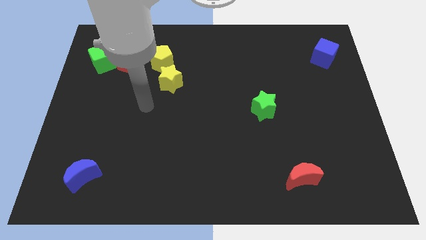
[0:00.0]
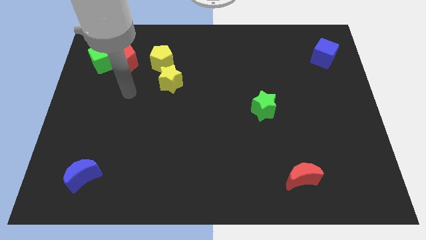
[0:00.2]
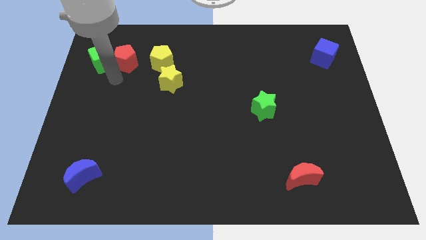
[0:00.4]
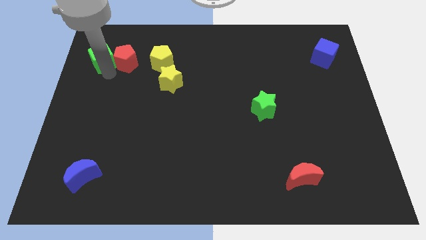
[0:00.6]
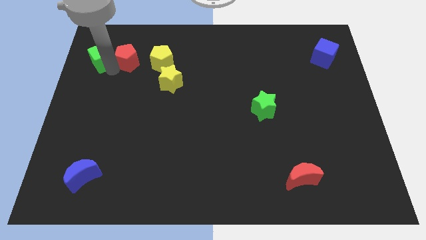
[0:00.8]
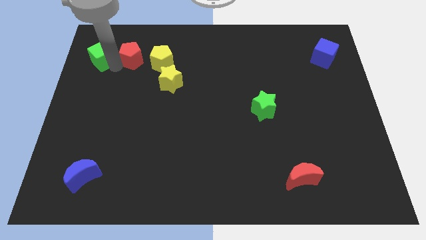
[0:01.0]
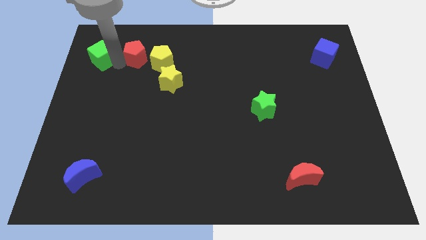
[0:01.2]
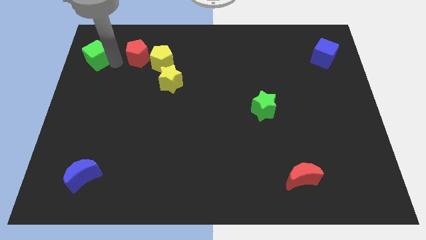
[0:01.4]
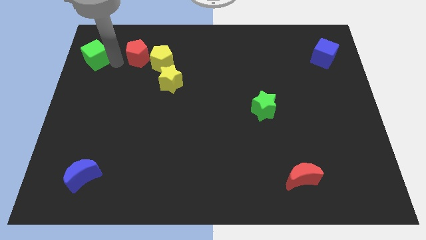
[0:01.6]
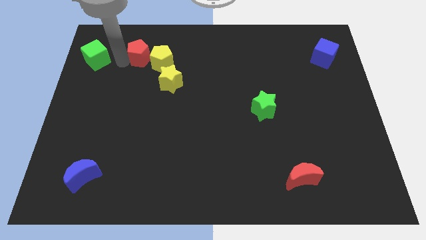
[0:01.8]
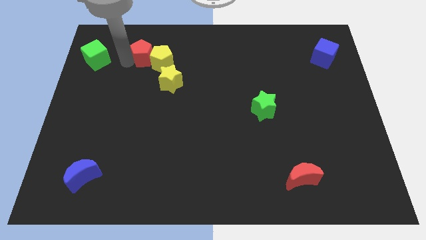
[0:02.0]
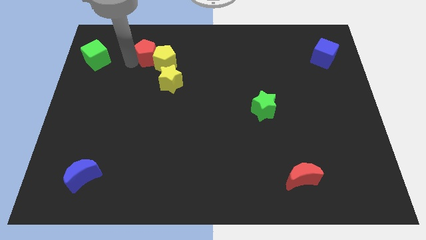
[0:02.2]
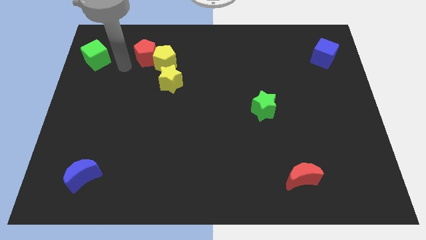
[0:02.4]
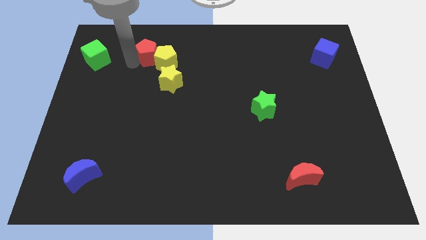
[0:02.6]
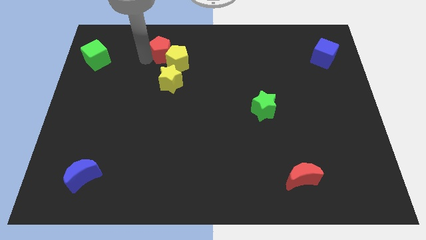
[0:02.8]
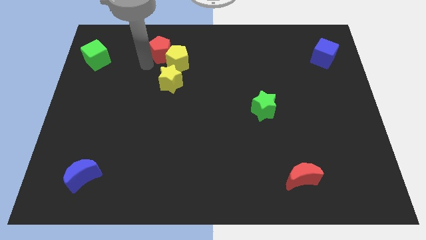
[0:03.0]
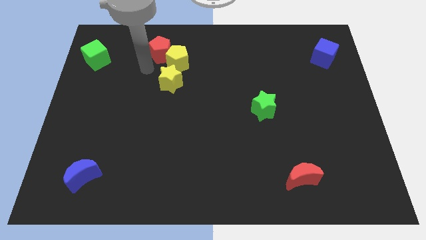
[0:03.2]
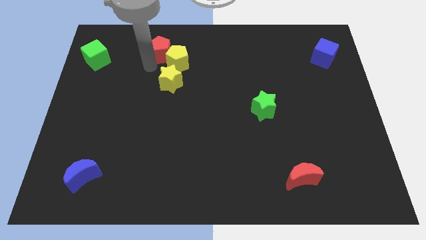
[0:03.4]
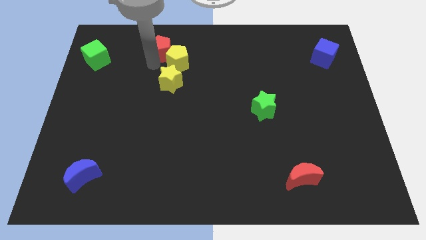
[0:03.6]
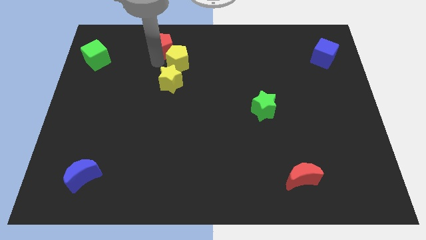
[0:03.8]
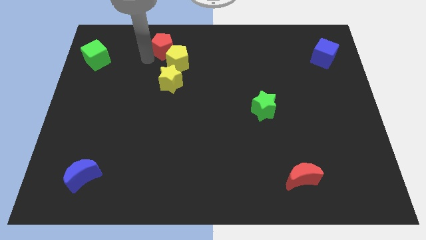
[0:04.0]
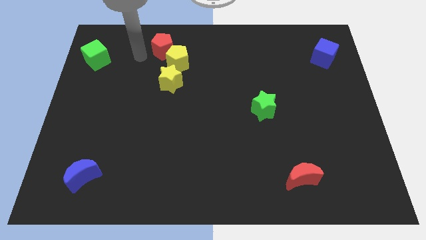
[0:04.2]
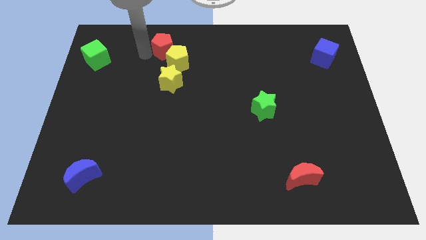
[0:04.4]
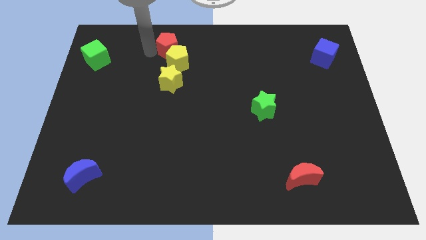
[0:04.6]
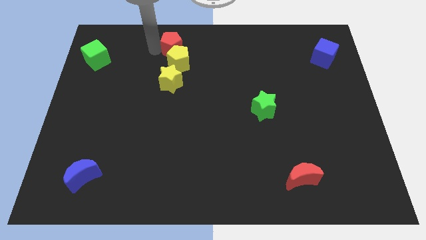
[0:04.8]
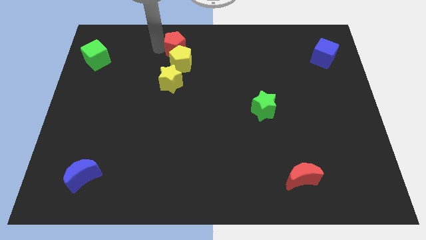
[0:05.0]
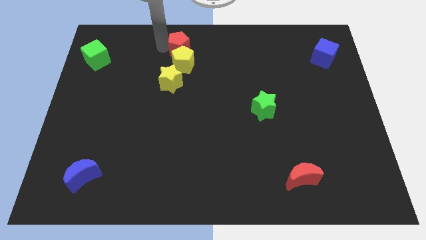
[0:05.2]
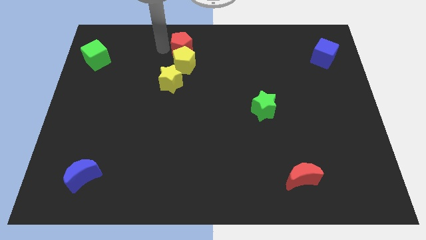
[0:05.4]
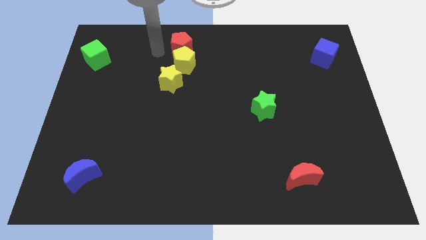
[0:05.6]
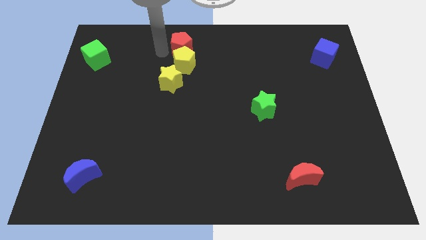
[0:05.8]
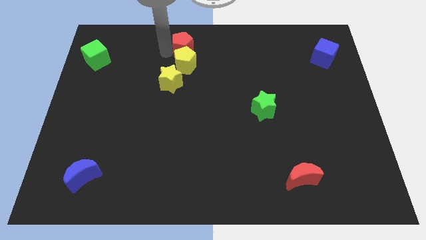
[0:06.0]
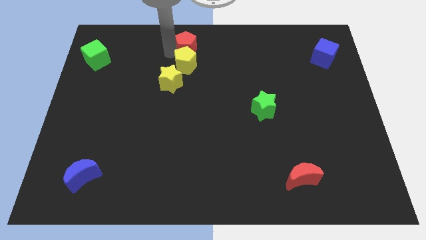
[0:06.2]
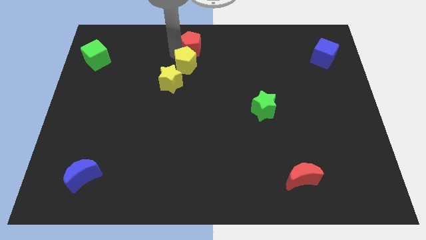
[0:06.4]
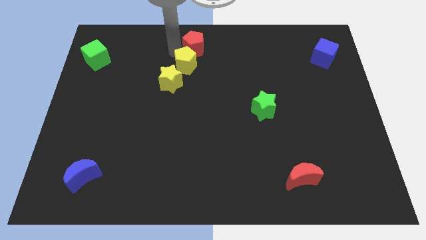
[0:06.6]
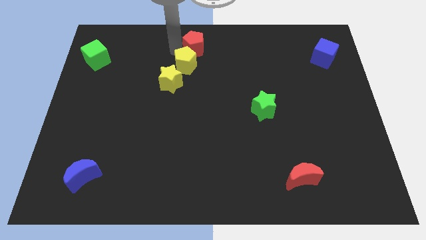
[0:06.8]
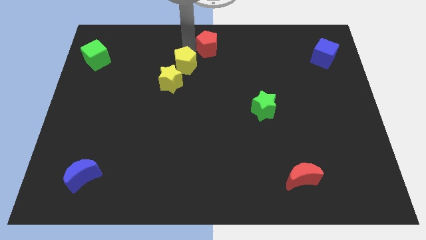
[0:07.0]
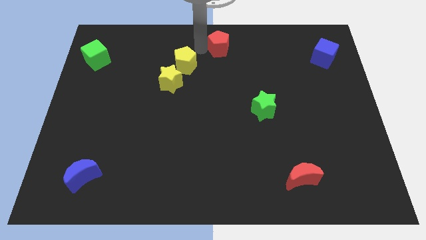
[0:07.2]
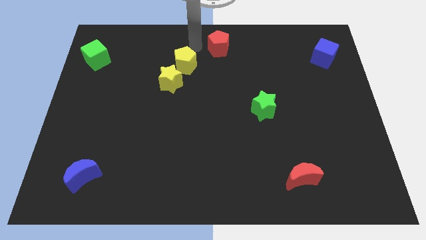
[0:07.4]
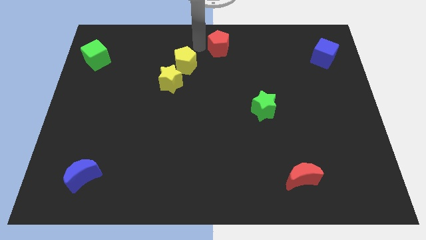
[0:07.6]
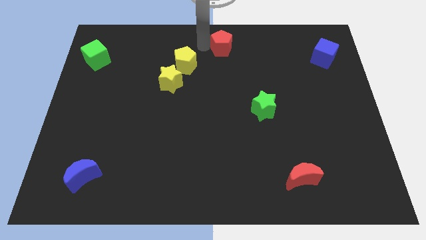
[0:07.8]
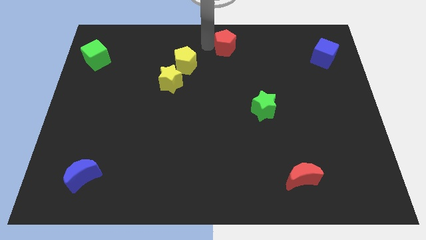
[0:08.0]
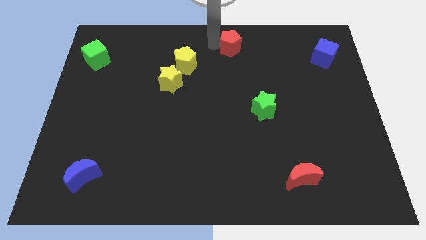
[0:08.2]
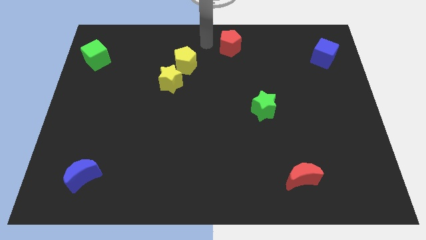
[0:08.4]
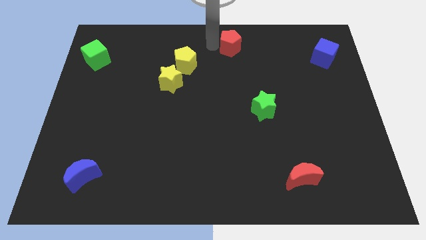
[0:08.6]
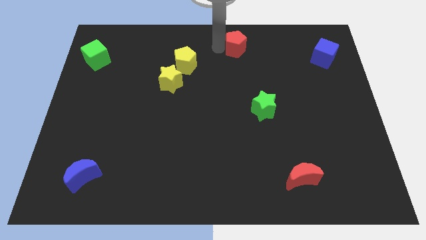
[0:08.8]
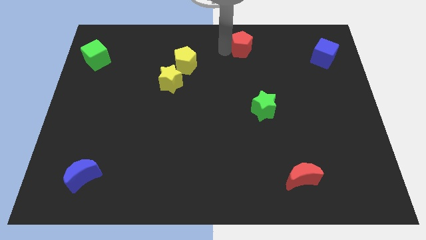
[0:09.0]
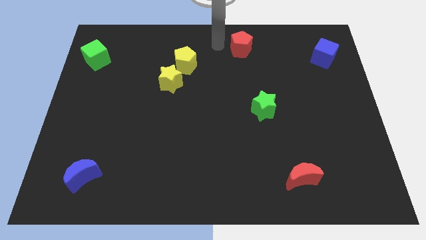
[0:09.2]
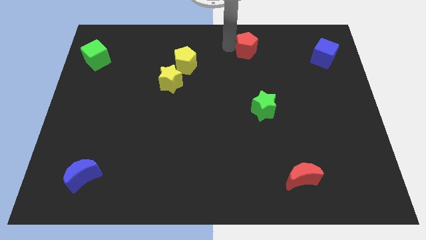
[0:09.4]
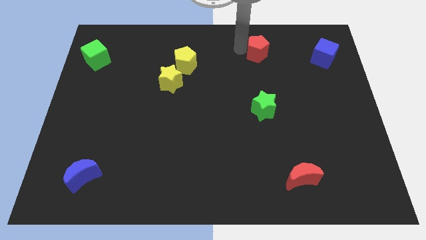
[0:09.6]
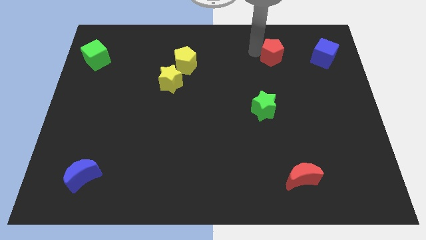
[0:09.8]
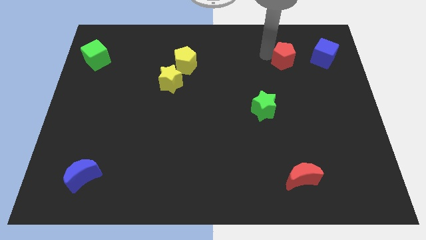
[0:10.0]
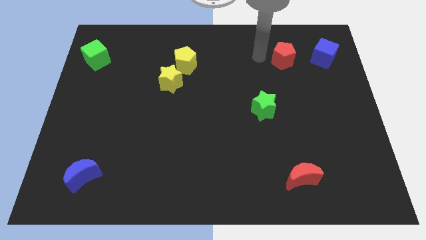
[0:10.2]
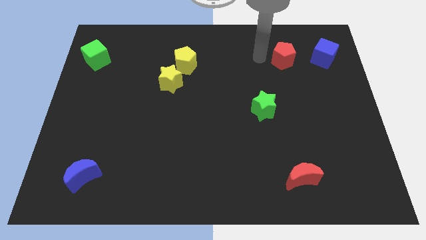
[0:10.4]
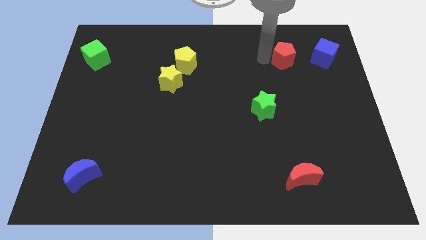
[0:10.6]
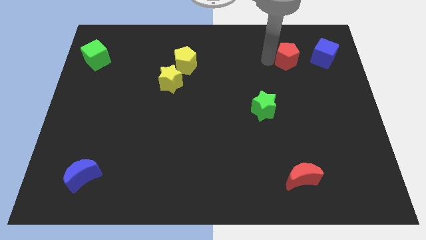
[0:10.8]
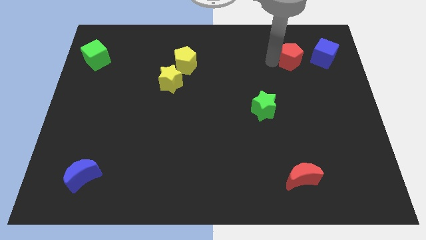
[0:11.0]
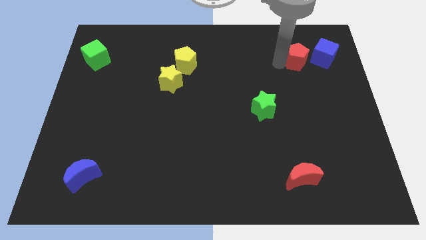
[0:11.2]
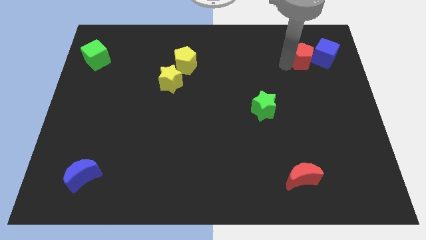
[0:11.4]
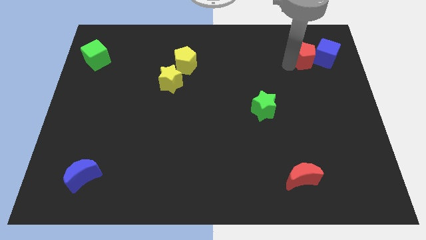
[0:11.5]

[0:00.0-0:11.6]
slide the red pentagon next to the blue cube

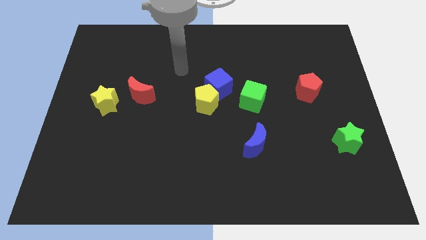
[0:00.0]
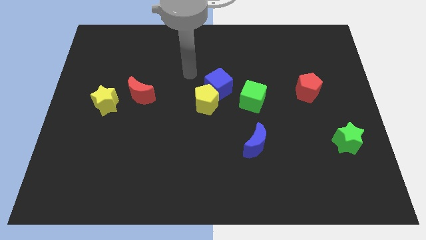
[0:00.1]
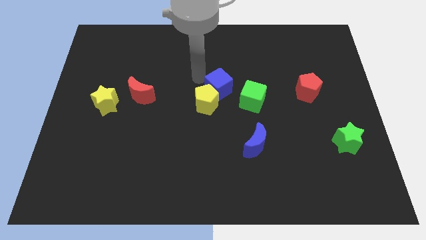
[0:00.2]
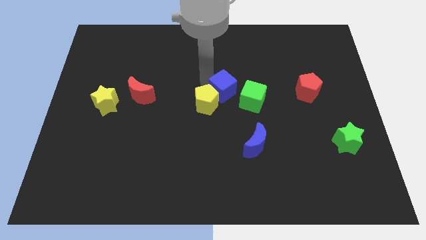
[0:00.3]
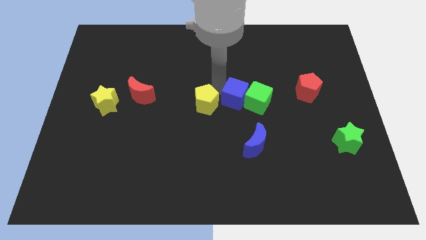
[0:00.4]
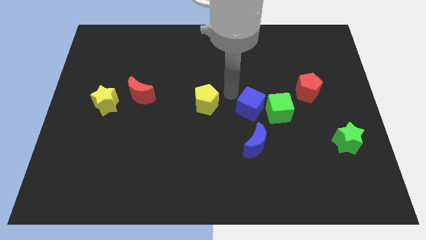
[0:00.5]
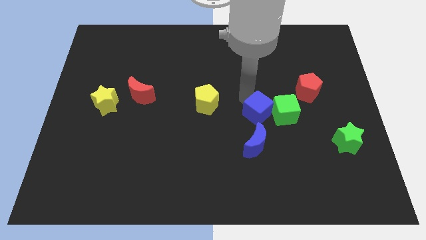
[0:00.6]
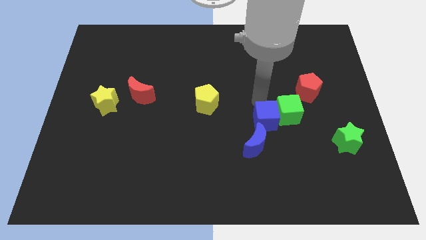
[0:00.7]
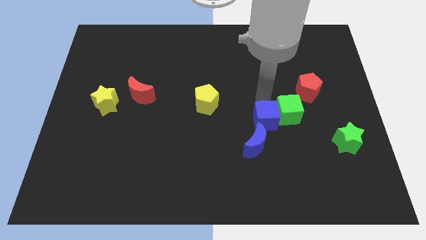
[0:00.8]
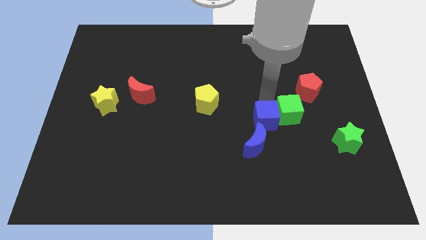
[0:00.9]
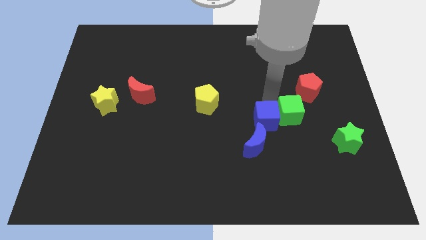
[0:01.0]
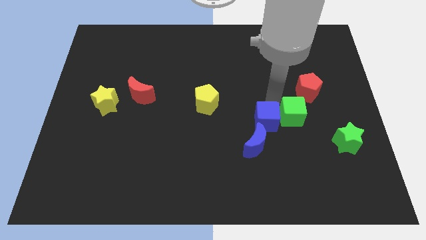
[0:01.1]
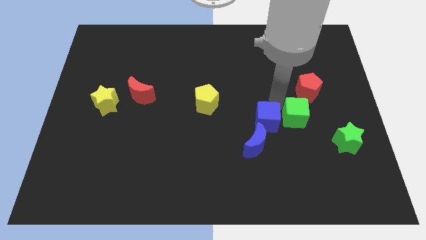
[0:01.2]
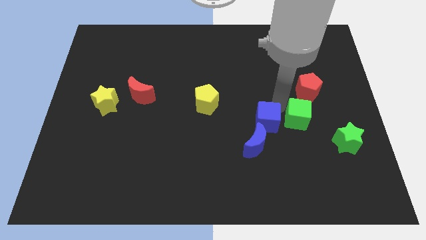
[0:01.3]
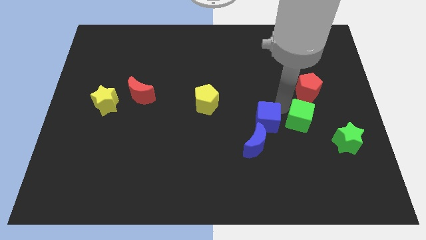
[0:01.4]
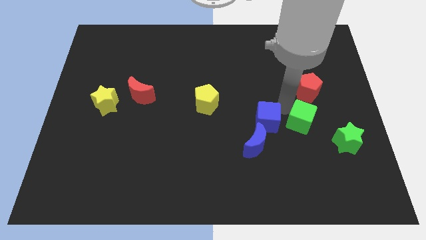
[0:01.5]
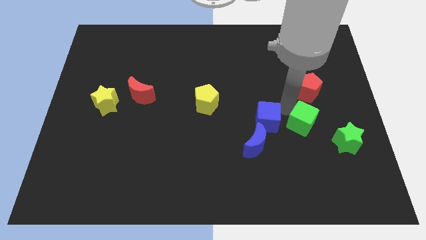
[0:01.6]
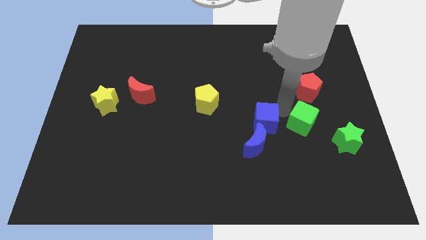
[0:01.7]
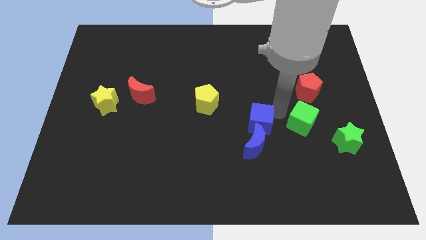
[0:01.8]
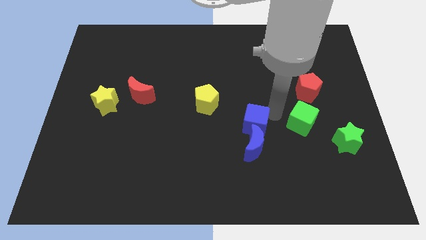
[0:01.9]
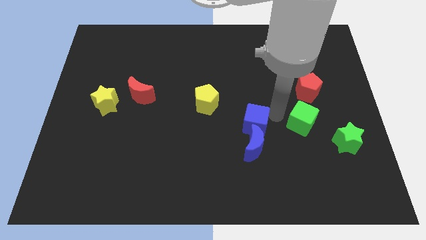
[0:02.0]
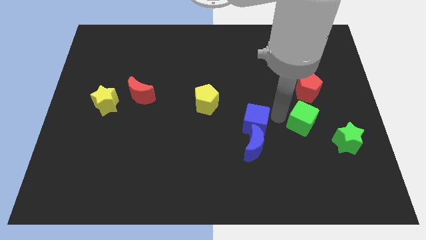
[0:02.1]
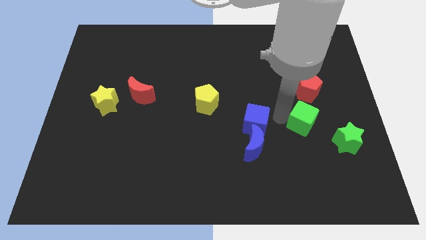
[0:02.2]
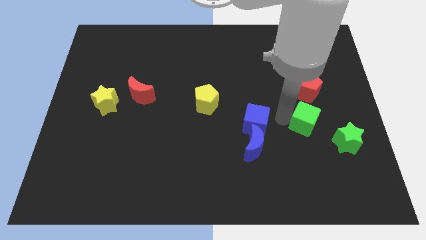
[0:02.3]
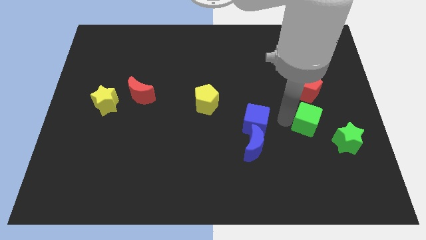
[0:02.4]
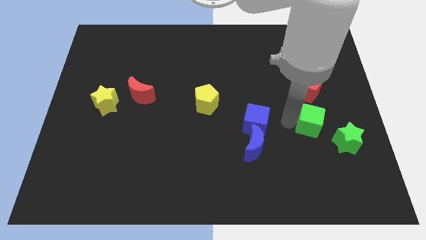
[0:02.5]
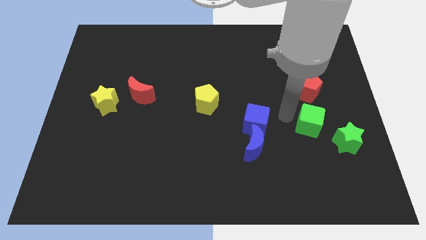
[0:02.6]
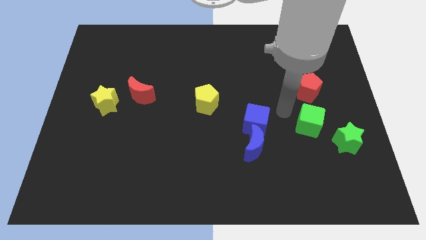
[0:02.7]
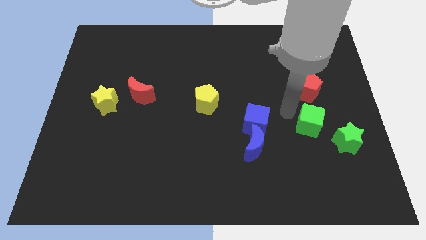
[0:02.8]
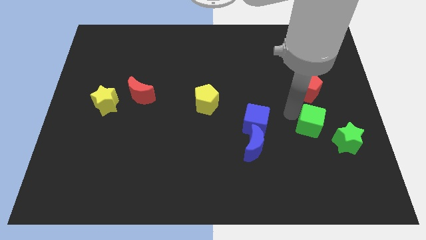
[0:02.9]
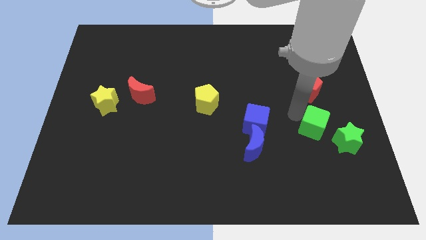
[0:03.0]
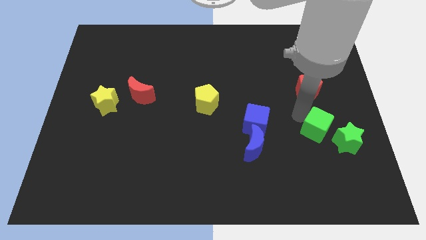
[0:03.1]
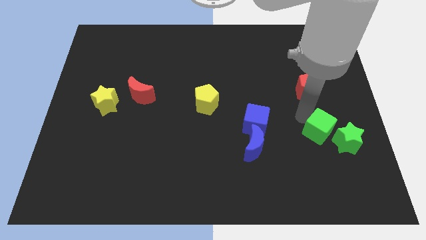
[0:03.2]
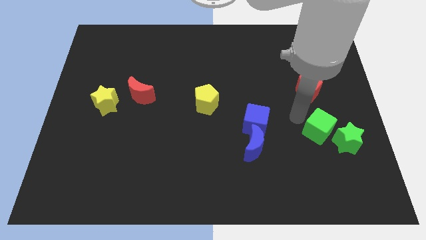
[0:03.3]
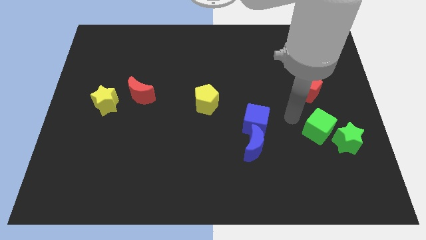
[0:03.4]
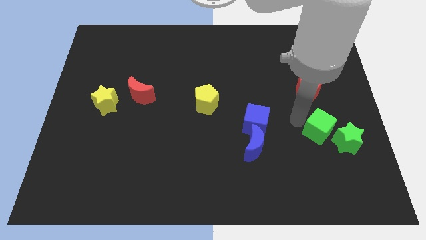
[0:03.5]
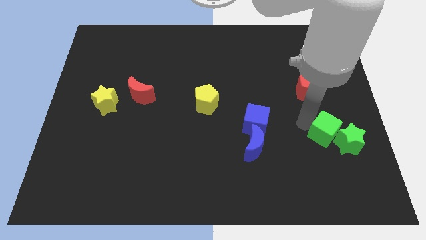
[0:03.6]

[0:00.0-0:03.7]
push the green cube next to the green star
